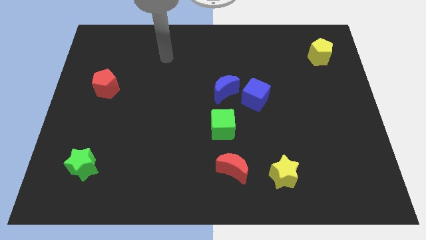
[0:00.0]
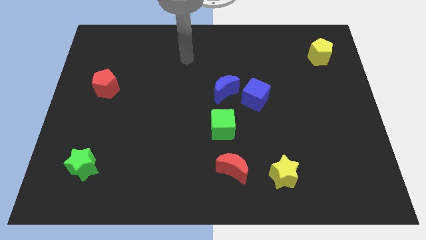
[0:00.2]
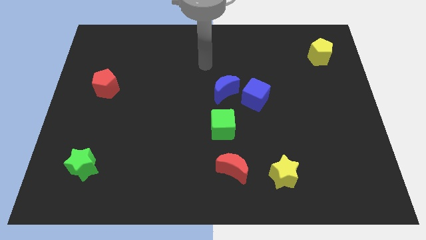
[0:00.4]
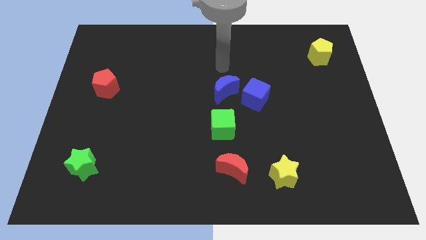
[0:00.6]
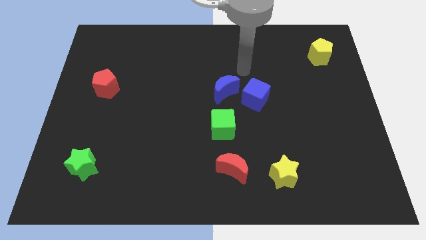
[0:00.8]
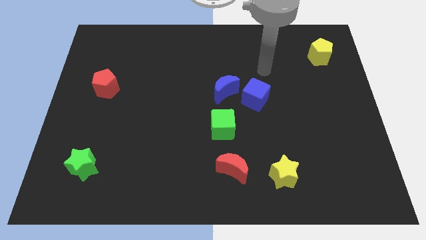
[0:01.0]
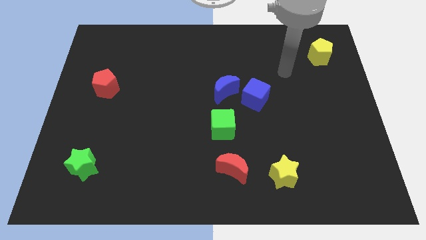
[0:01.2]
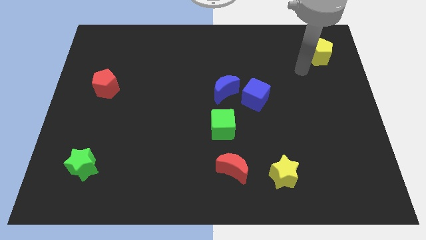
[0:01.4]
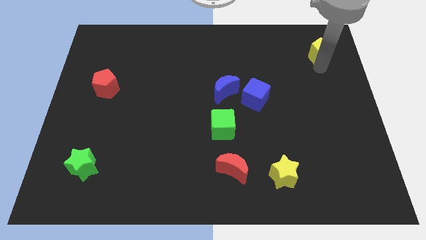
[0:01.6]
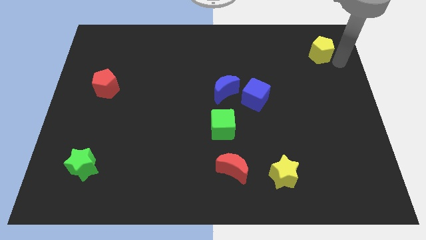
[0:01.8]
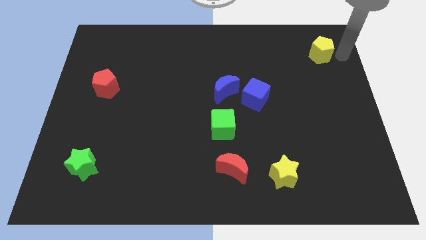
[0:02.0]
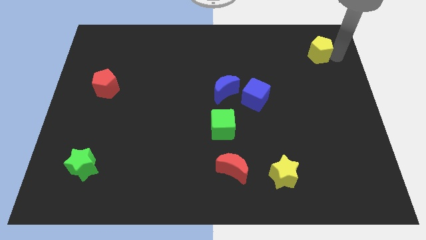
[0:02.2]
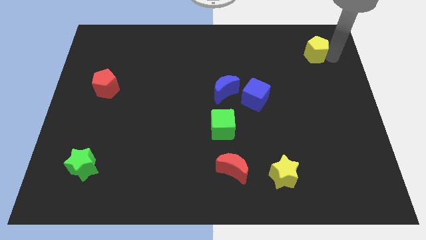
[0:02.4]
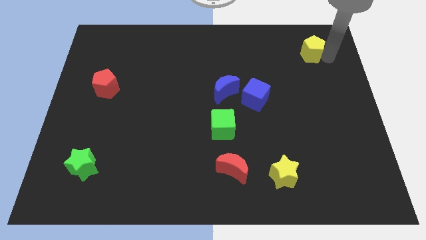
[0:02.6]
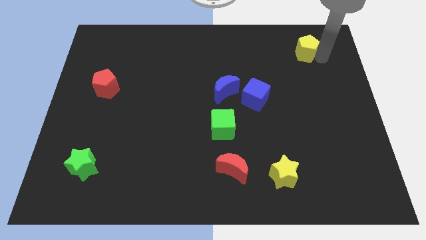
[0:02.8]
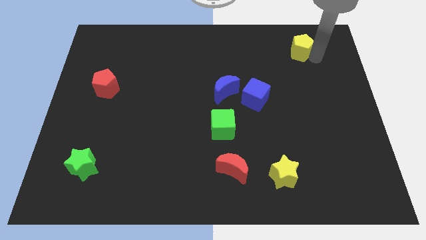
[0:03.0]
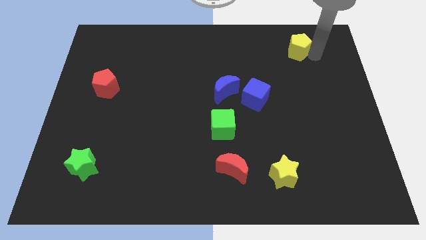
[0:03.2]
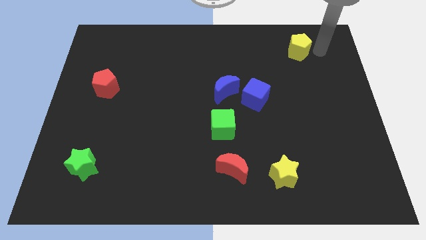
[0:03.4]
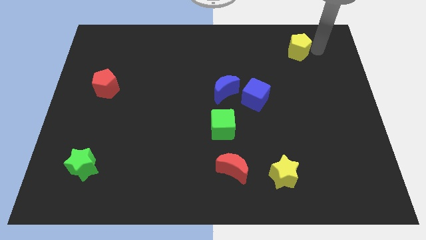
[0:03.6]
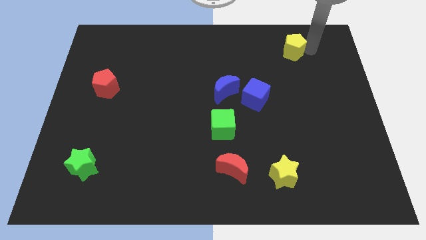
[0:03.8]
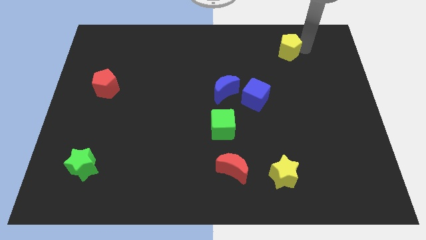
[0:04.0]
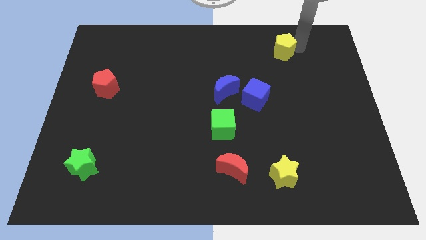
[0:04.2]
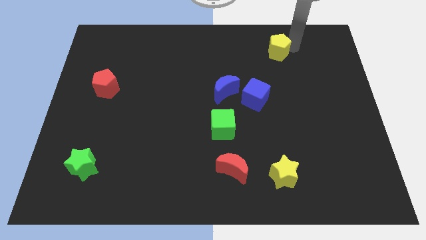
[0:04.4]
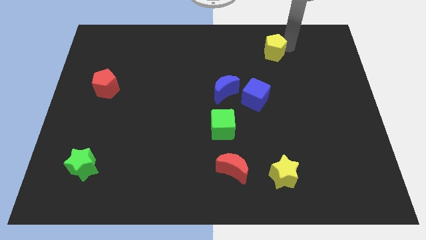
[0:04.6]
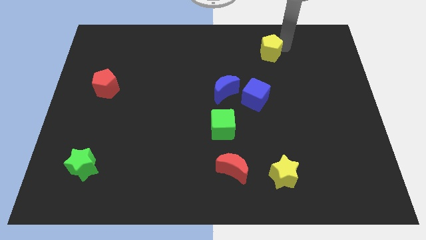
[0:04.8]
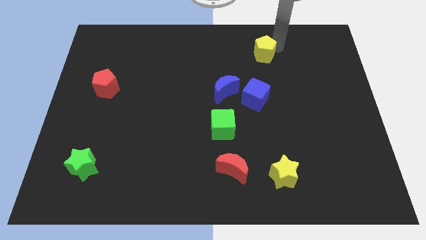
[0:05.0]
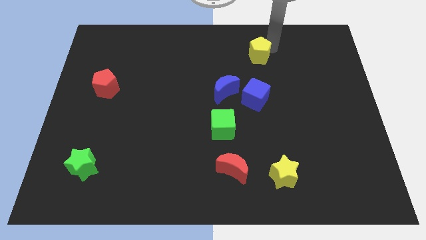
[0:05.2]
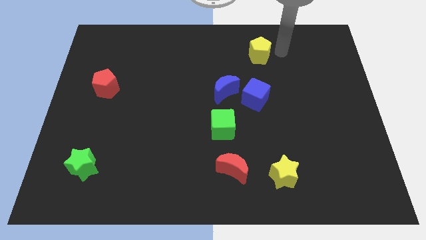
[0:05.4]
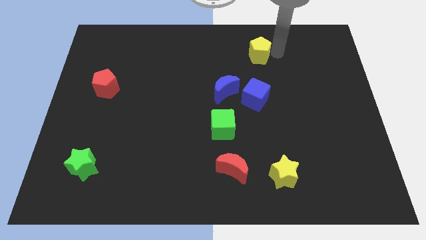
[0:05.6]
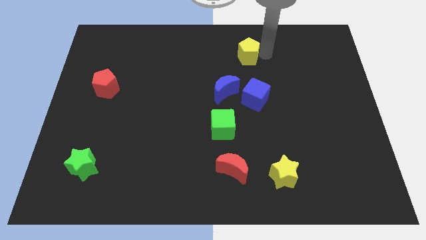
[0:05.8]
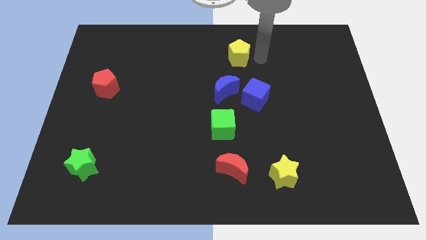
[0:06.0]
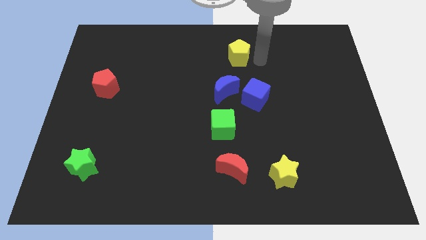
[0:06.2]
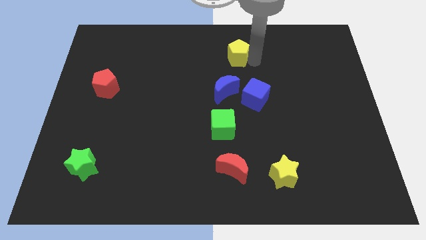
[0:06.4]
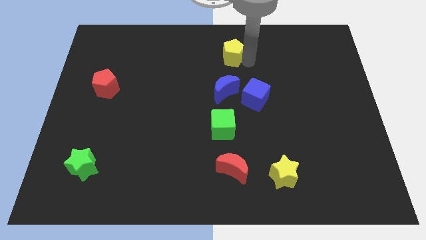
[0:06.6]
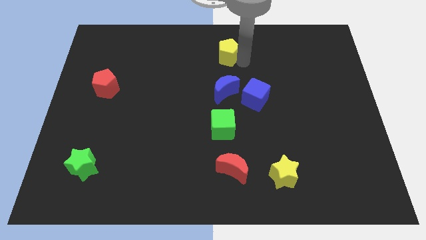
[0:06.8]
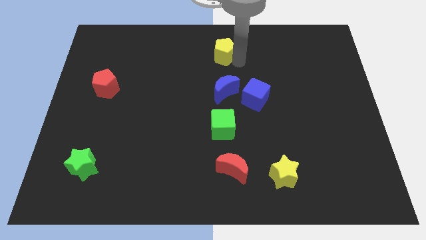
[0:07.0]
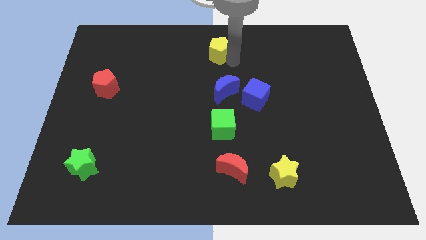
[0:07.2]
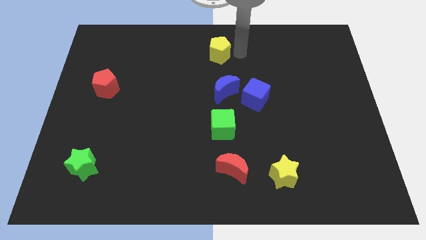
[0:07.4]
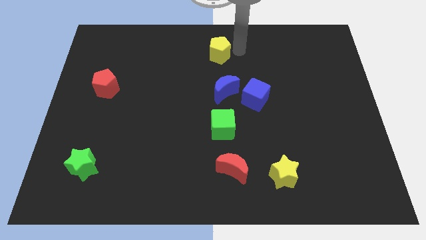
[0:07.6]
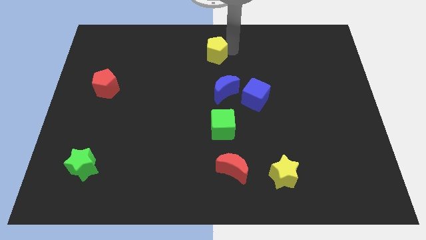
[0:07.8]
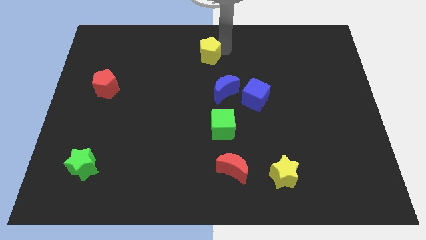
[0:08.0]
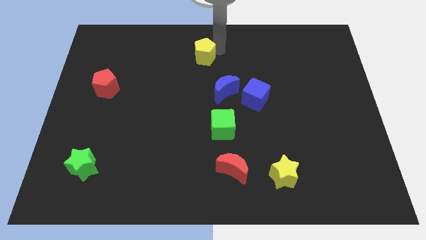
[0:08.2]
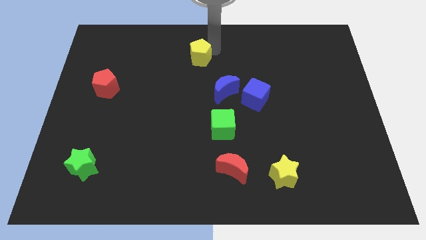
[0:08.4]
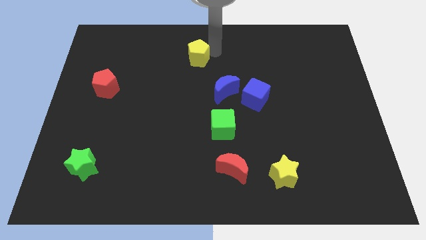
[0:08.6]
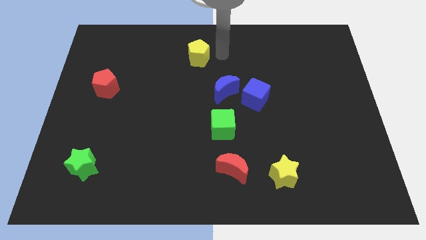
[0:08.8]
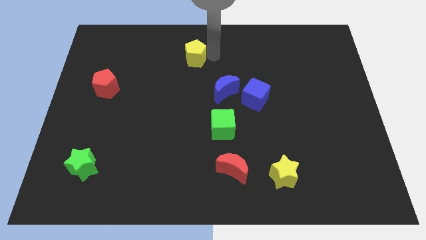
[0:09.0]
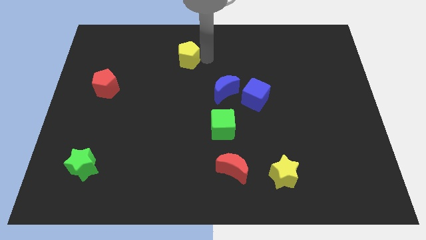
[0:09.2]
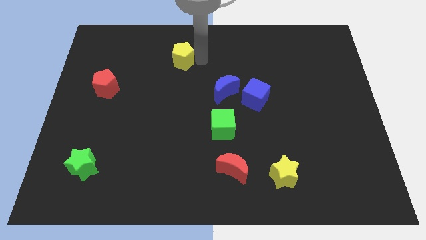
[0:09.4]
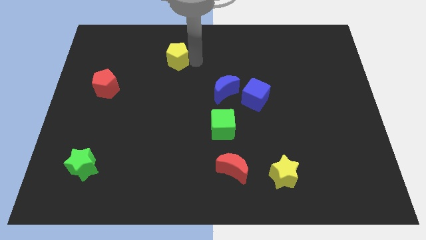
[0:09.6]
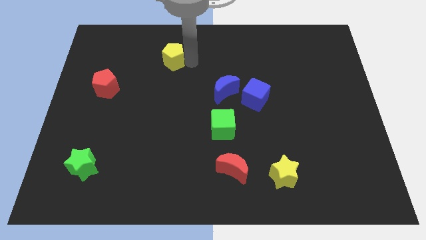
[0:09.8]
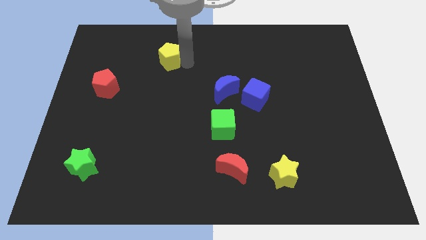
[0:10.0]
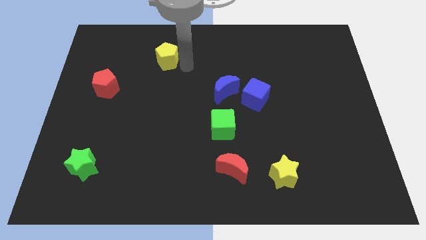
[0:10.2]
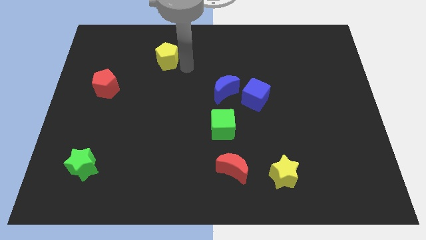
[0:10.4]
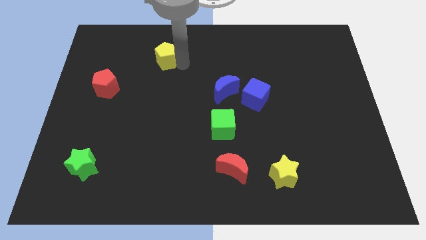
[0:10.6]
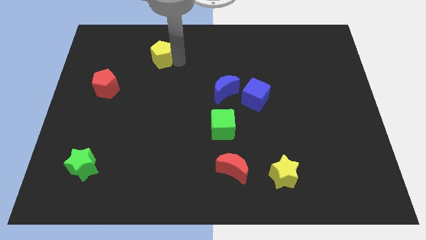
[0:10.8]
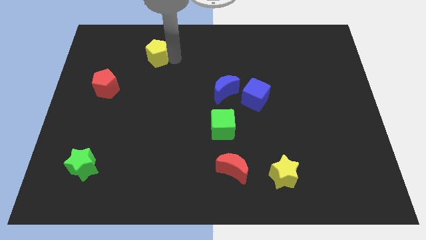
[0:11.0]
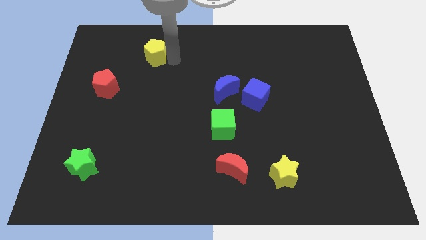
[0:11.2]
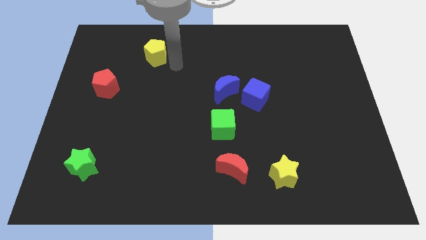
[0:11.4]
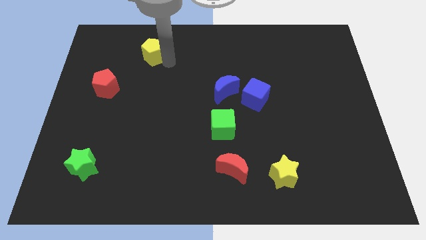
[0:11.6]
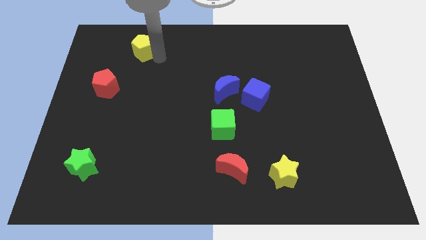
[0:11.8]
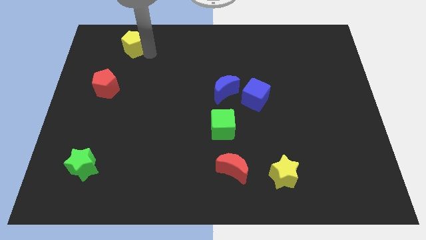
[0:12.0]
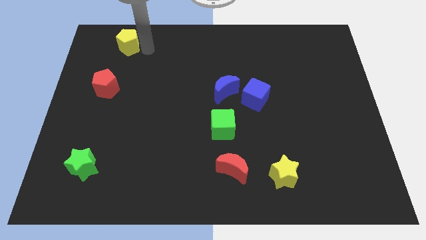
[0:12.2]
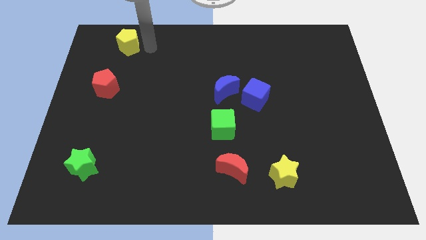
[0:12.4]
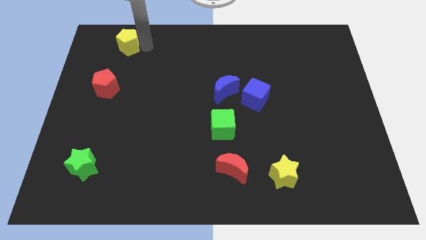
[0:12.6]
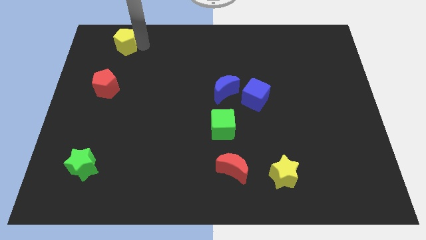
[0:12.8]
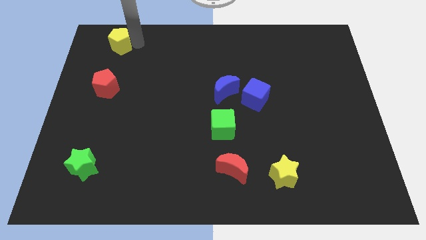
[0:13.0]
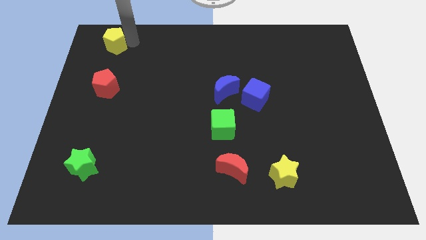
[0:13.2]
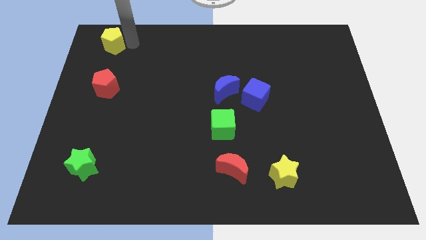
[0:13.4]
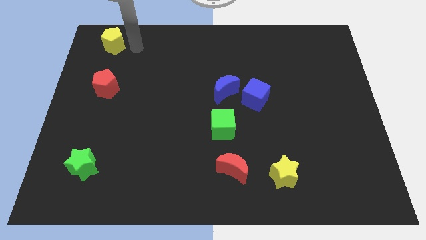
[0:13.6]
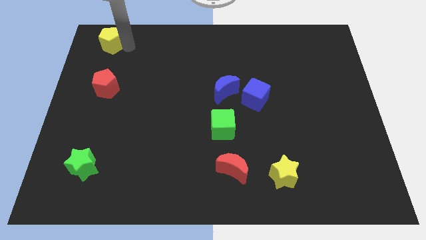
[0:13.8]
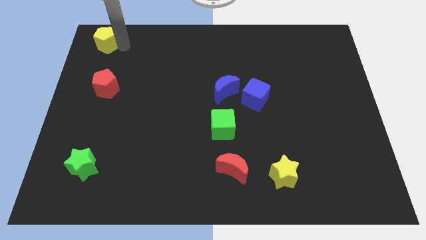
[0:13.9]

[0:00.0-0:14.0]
move the yellow pentagon to the top left corner
